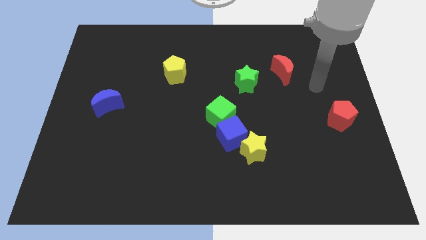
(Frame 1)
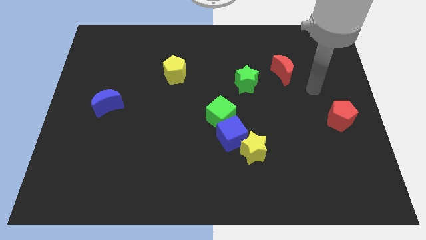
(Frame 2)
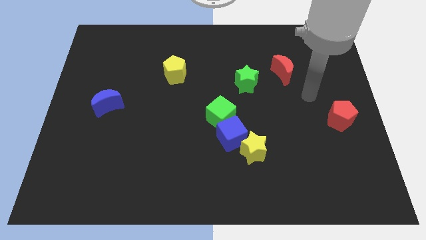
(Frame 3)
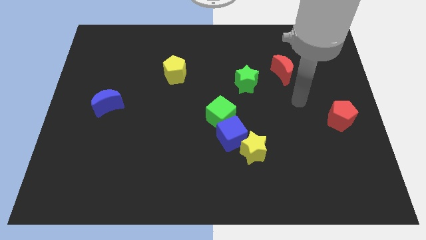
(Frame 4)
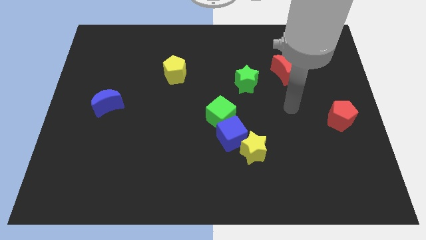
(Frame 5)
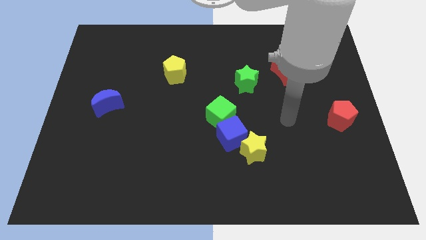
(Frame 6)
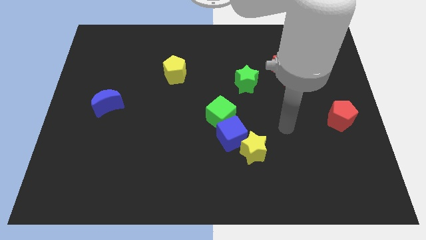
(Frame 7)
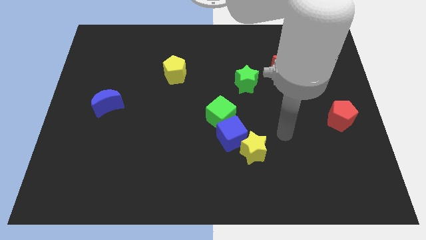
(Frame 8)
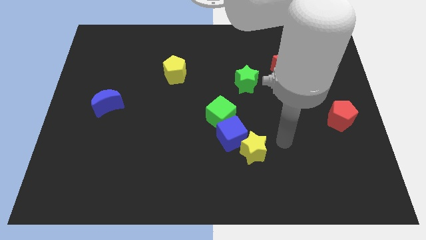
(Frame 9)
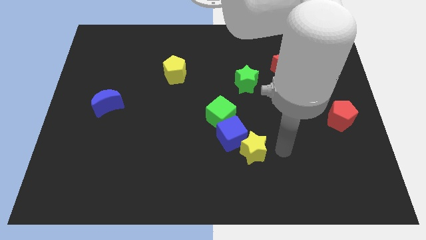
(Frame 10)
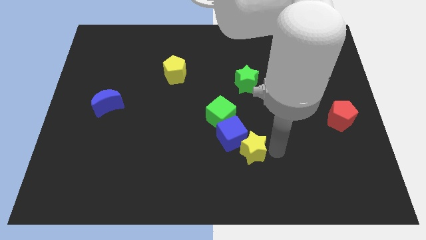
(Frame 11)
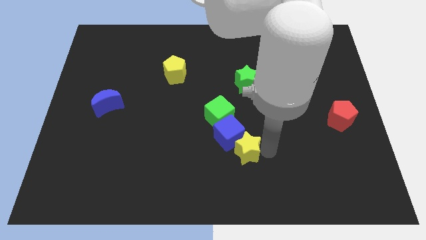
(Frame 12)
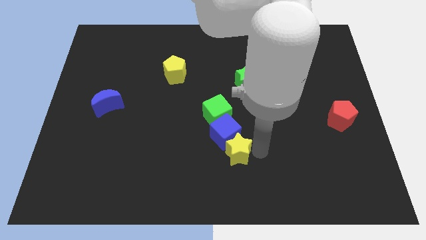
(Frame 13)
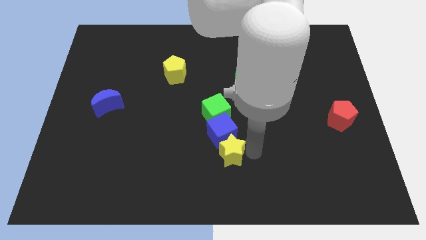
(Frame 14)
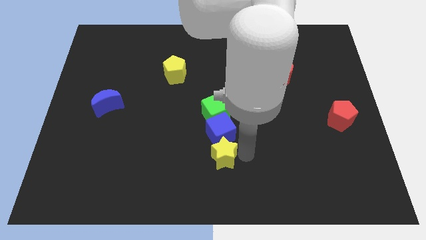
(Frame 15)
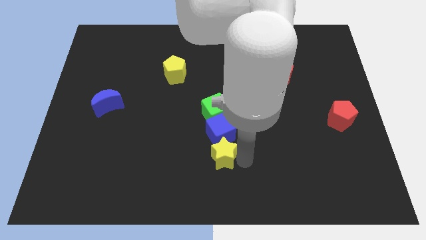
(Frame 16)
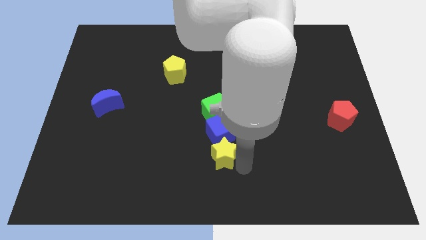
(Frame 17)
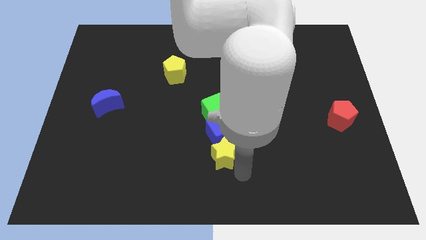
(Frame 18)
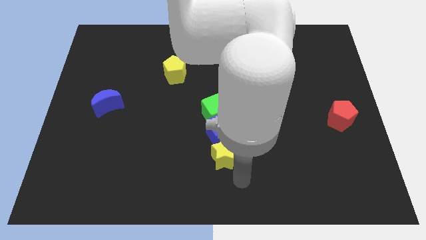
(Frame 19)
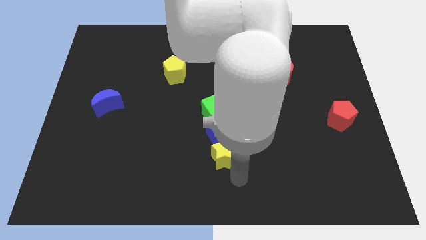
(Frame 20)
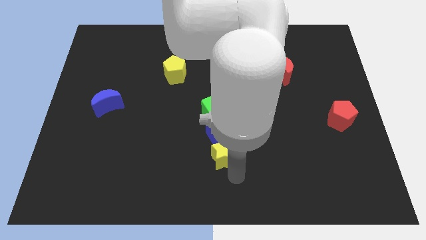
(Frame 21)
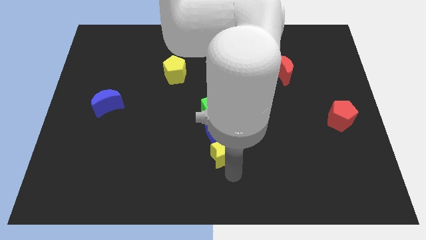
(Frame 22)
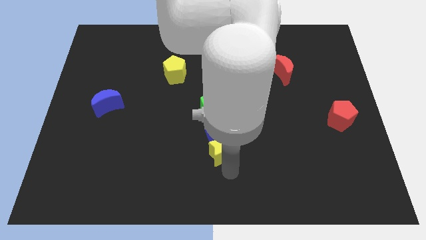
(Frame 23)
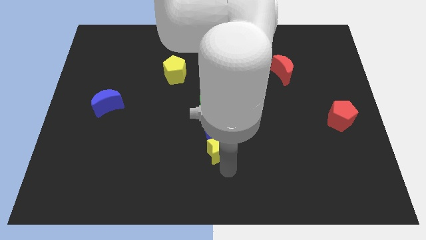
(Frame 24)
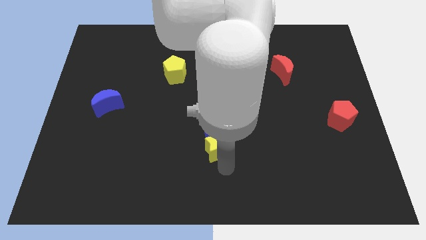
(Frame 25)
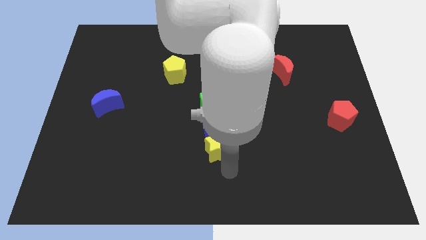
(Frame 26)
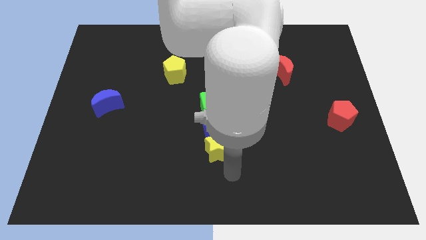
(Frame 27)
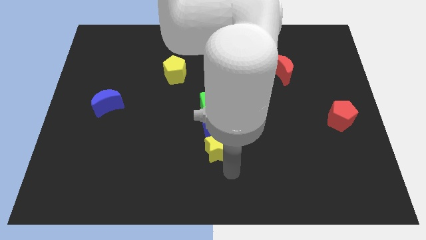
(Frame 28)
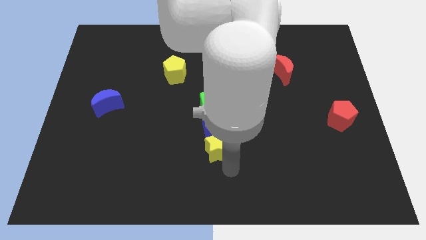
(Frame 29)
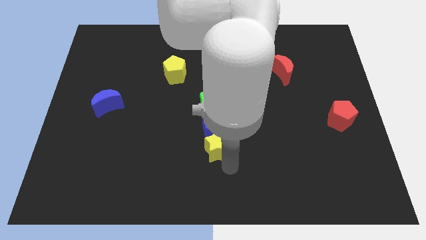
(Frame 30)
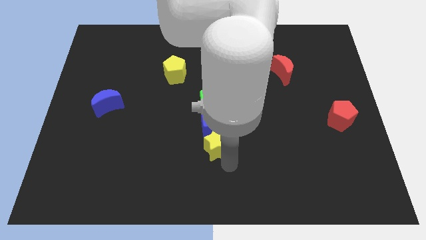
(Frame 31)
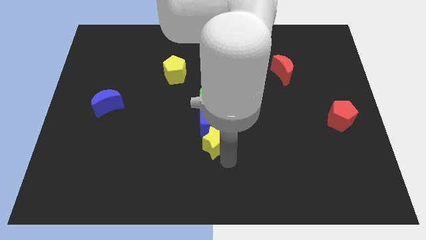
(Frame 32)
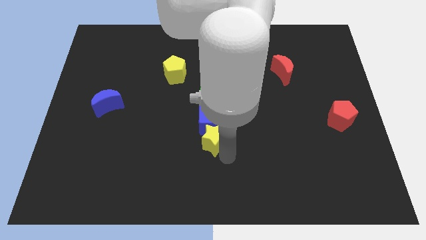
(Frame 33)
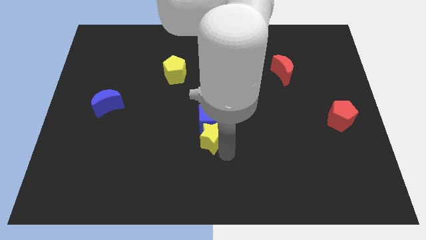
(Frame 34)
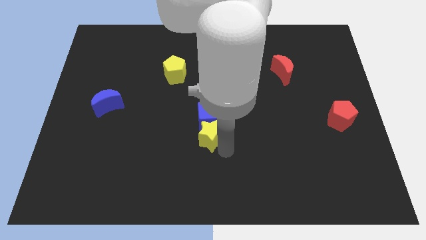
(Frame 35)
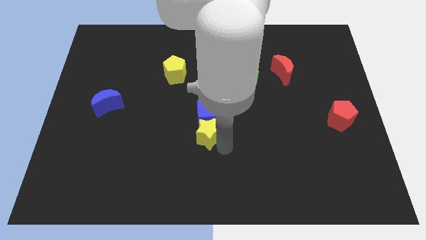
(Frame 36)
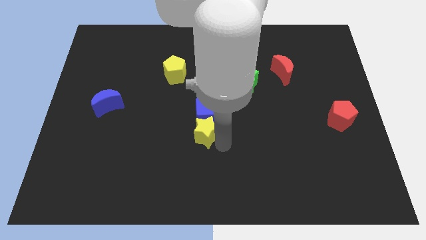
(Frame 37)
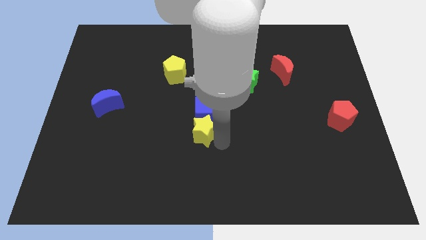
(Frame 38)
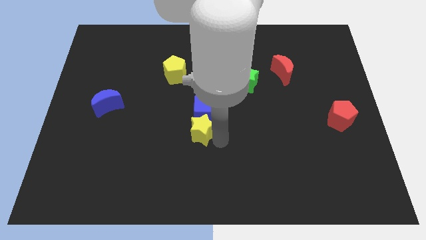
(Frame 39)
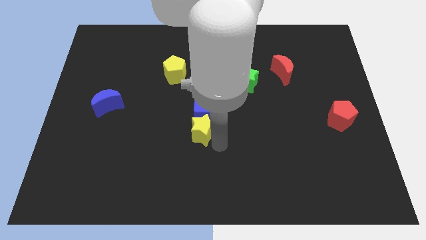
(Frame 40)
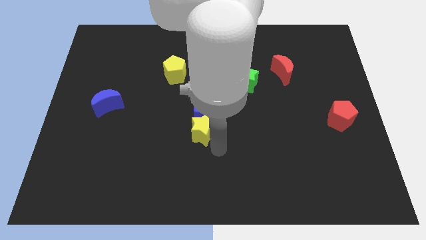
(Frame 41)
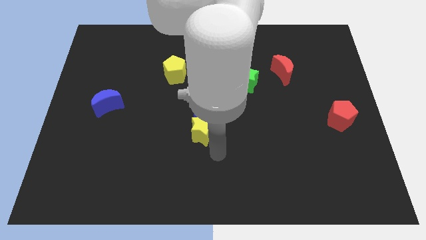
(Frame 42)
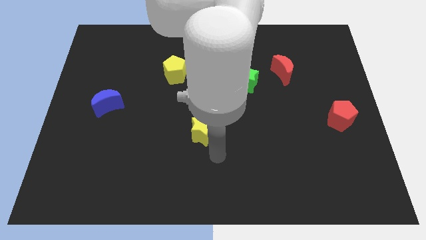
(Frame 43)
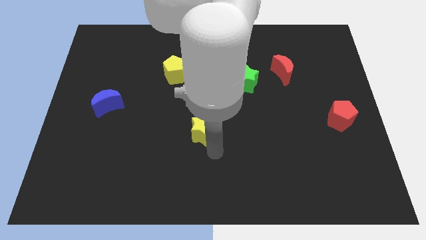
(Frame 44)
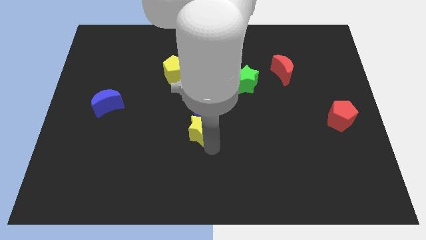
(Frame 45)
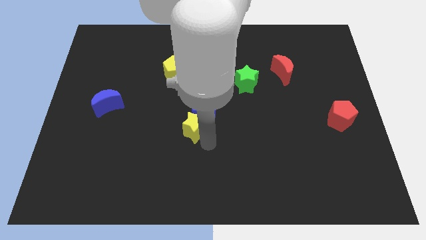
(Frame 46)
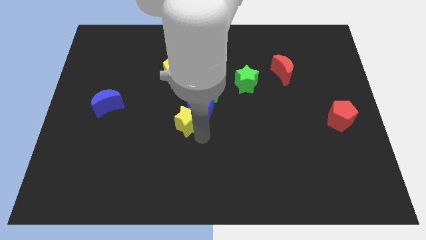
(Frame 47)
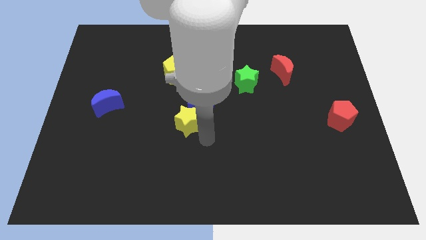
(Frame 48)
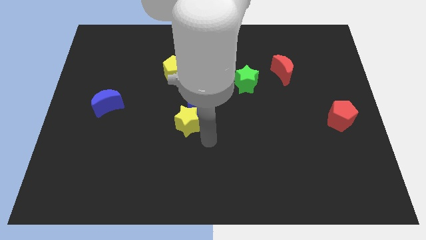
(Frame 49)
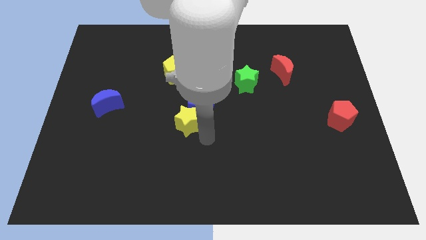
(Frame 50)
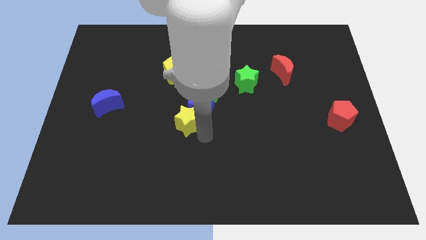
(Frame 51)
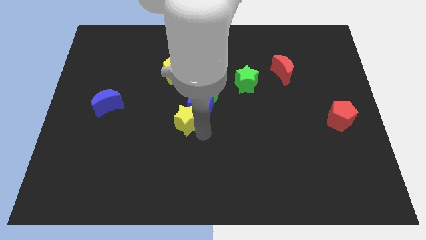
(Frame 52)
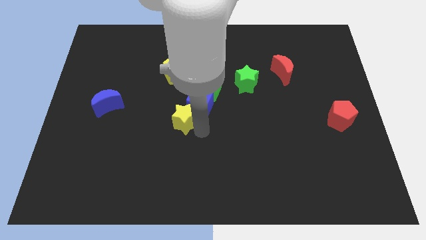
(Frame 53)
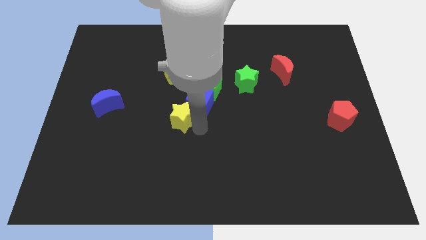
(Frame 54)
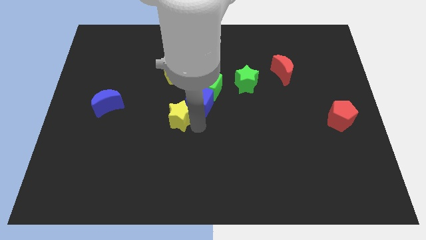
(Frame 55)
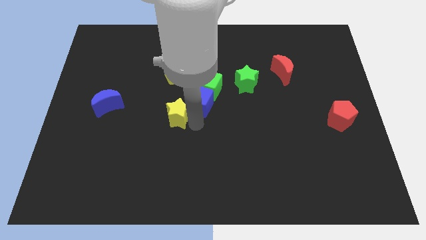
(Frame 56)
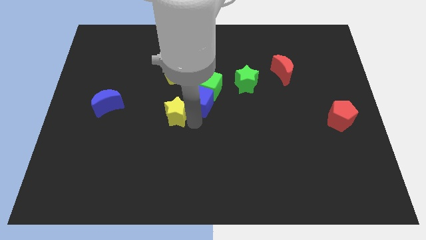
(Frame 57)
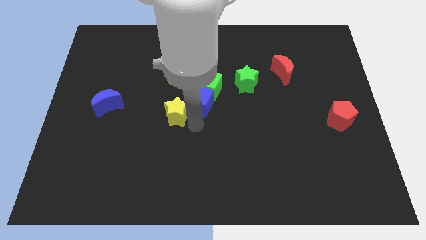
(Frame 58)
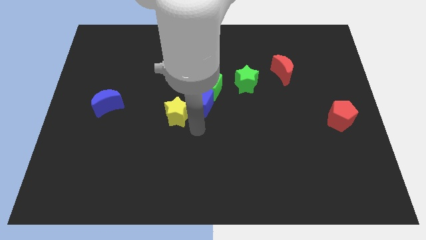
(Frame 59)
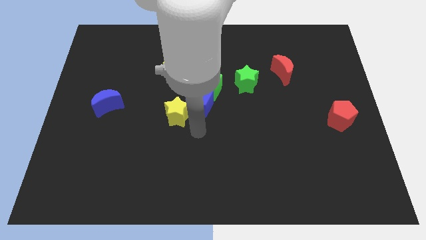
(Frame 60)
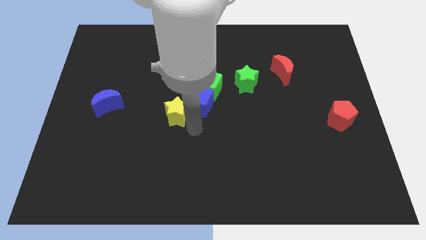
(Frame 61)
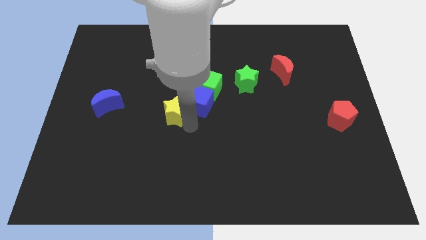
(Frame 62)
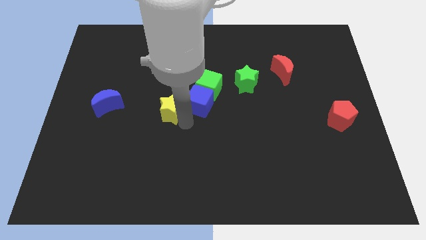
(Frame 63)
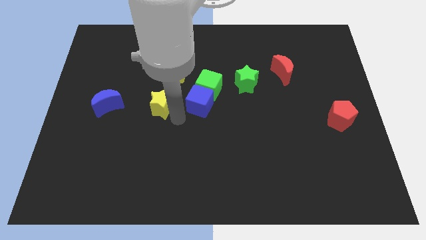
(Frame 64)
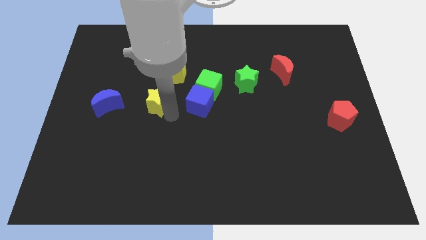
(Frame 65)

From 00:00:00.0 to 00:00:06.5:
push the yellow star diagonally down and to the left of the yellow pentagon

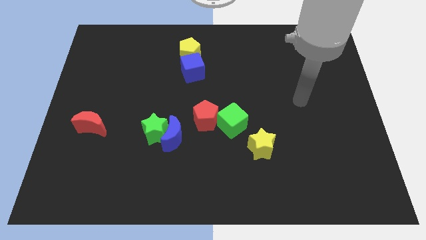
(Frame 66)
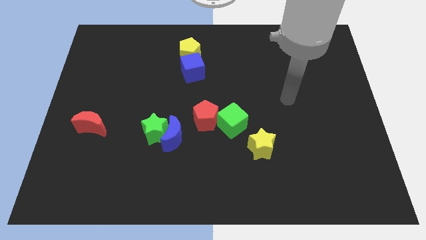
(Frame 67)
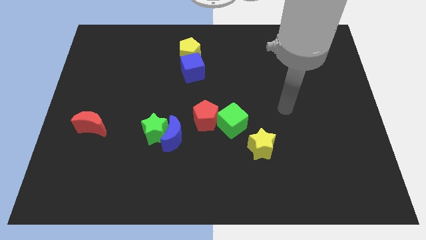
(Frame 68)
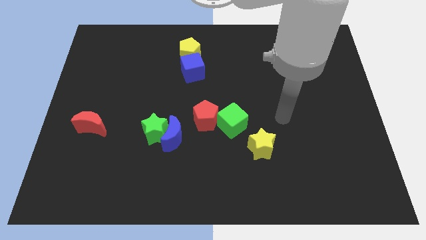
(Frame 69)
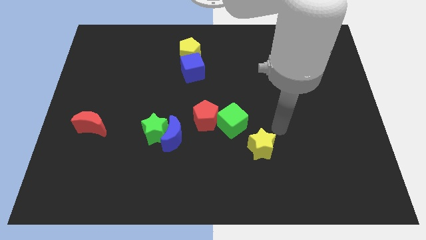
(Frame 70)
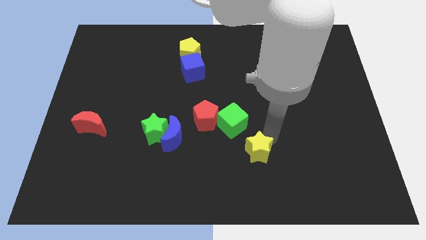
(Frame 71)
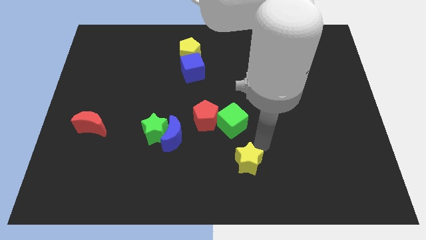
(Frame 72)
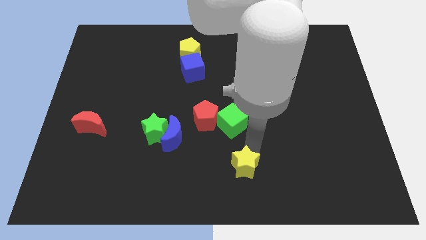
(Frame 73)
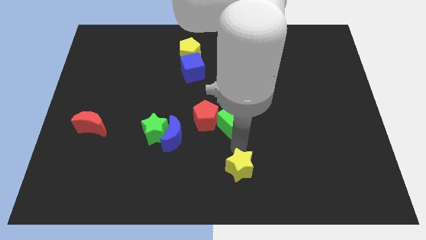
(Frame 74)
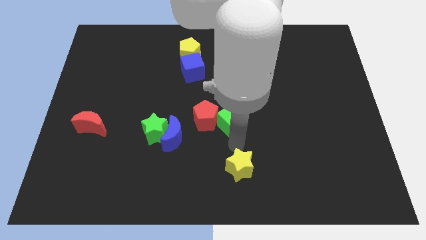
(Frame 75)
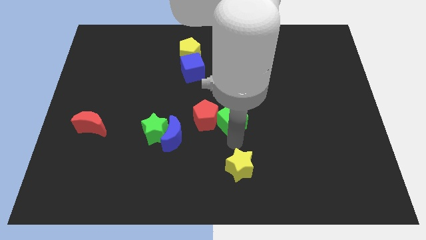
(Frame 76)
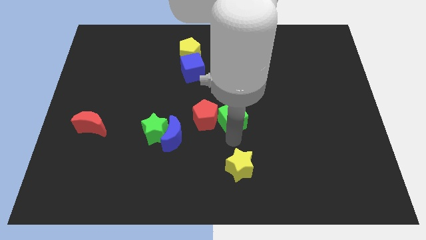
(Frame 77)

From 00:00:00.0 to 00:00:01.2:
push the green cube to the top right of the red pentagon

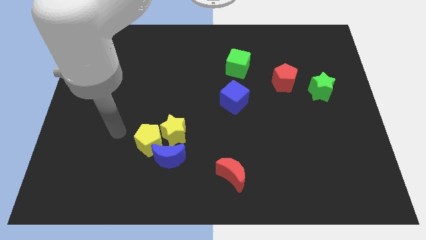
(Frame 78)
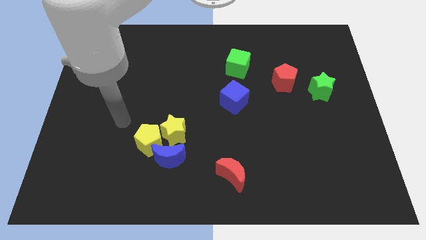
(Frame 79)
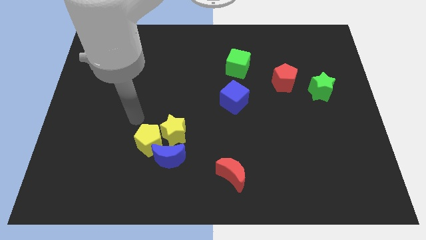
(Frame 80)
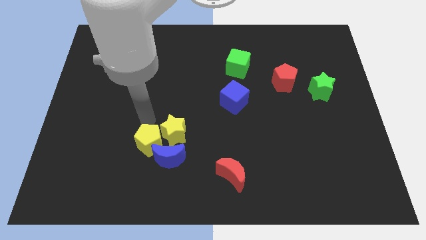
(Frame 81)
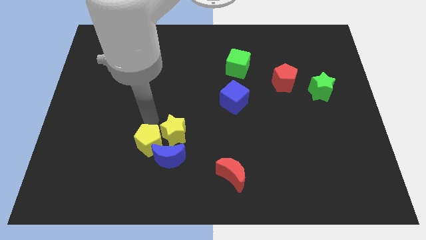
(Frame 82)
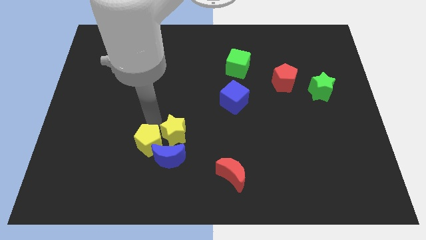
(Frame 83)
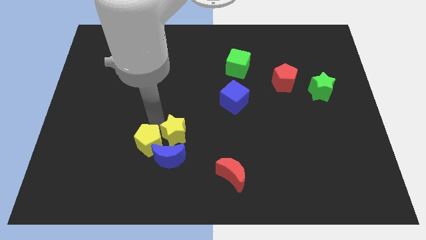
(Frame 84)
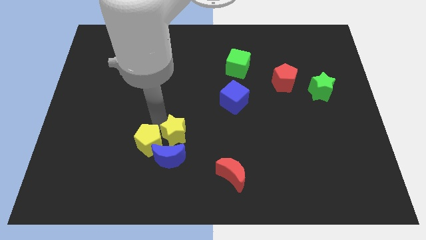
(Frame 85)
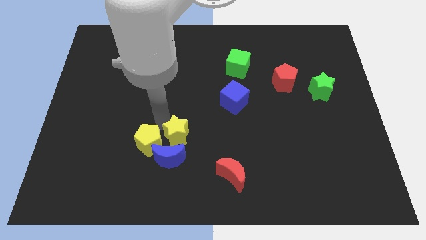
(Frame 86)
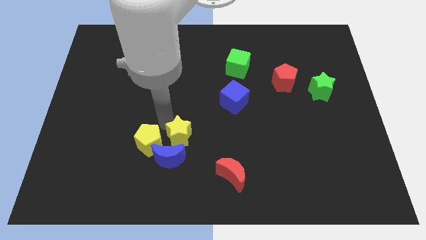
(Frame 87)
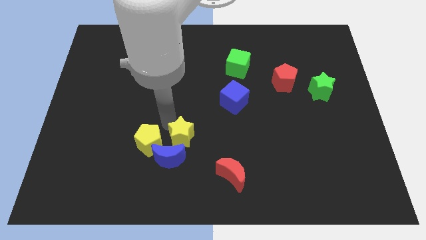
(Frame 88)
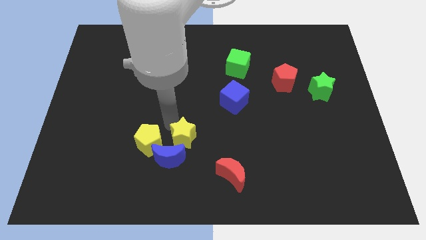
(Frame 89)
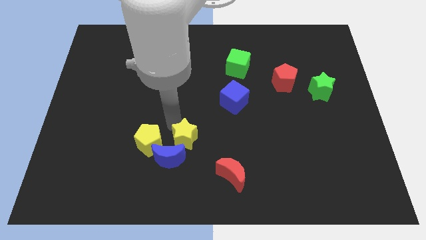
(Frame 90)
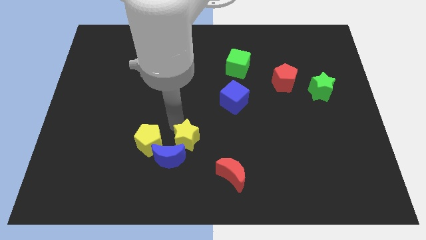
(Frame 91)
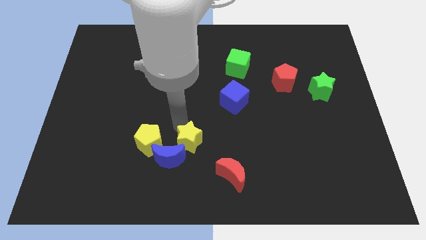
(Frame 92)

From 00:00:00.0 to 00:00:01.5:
put the yellow star right of the blue moon
